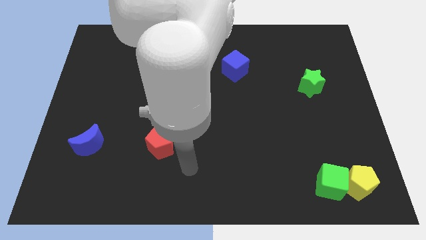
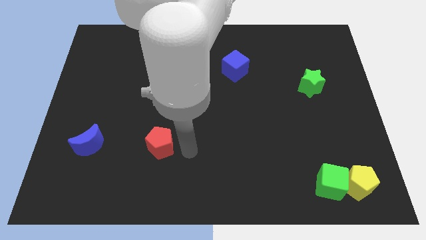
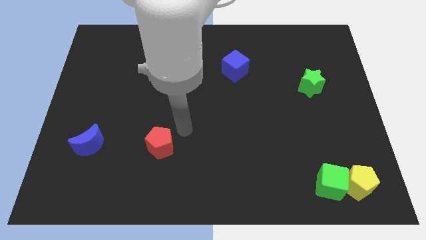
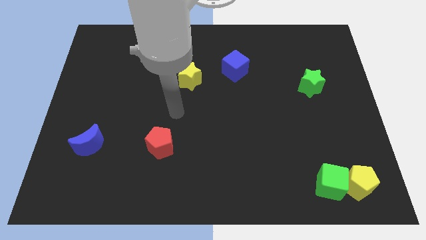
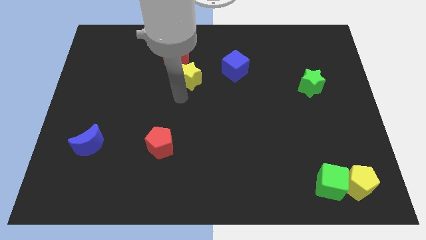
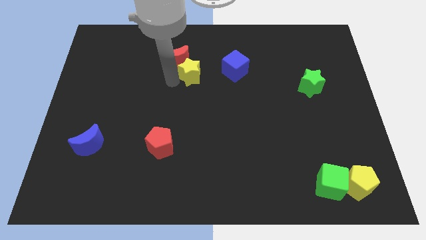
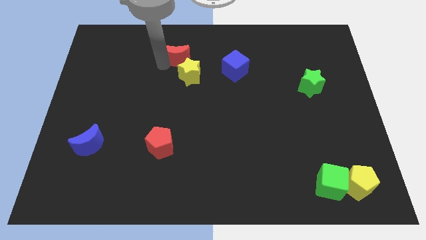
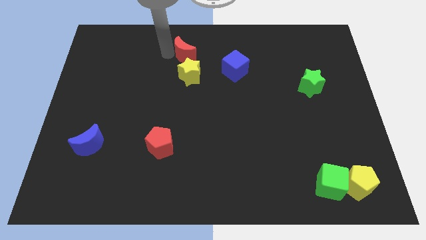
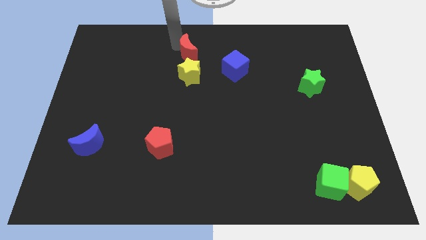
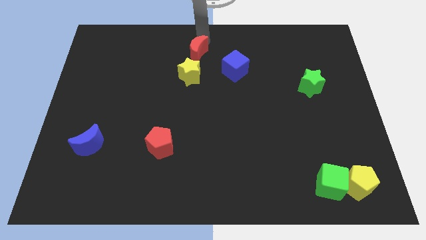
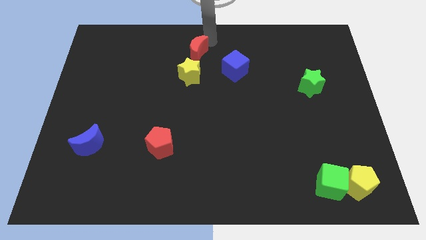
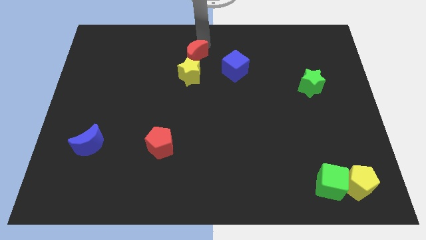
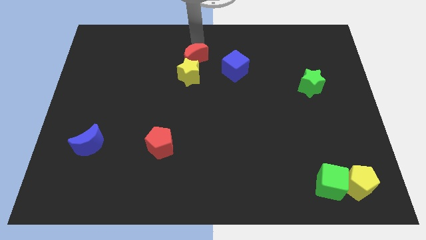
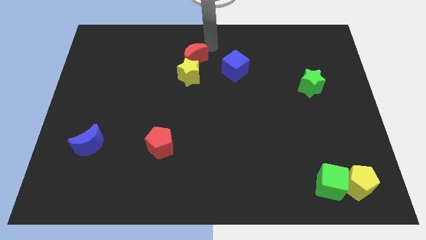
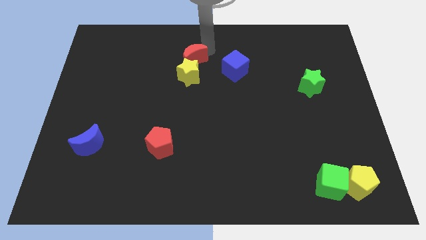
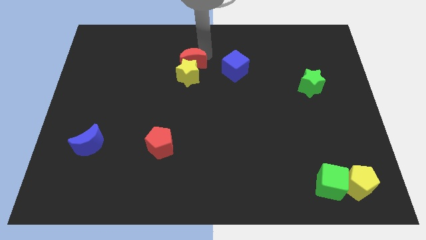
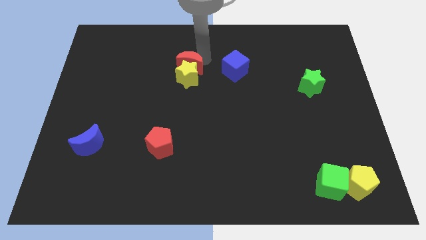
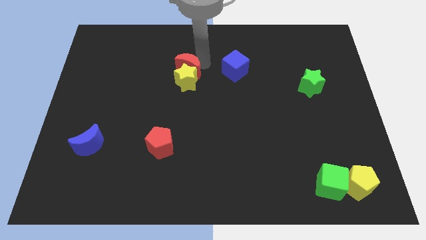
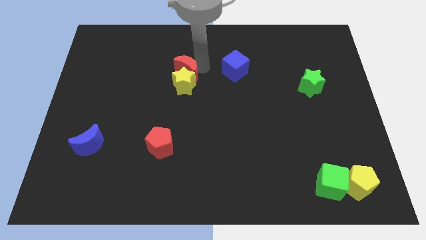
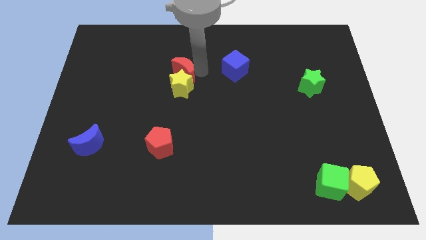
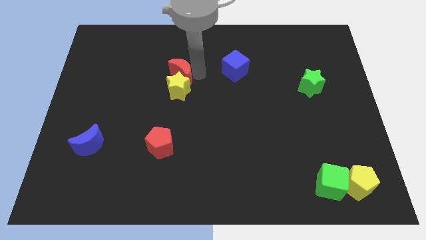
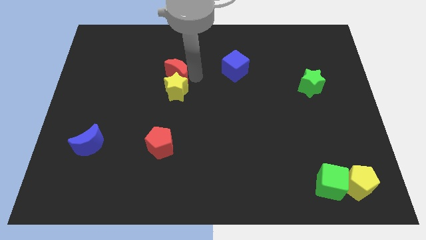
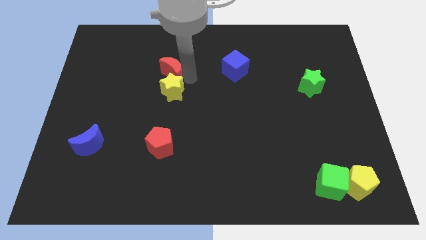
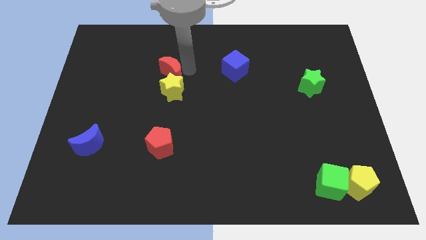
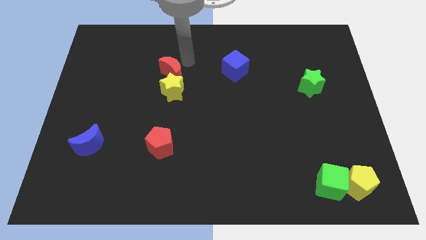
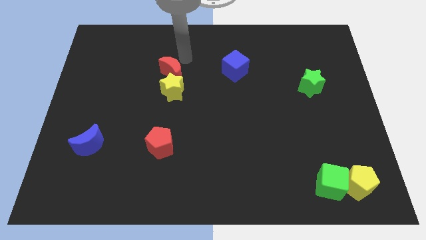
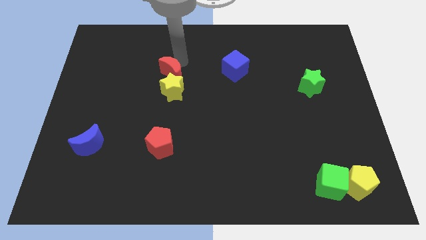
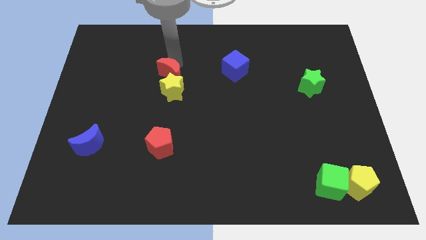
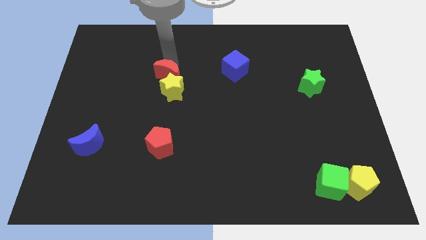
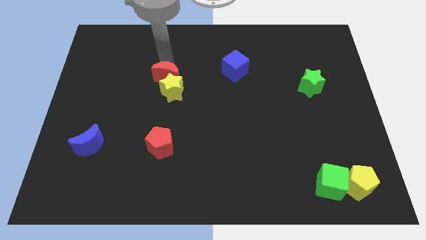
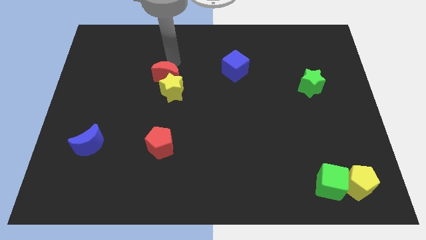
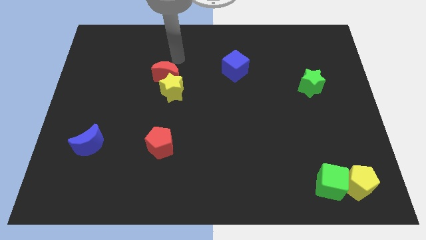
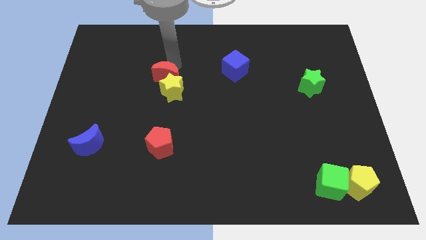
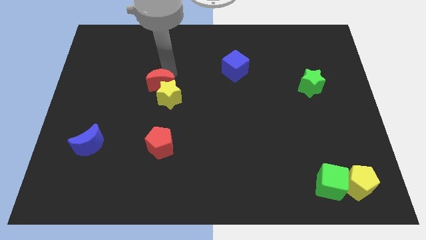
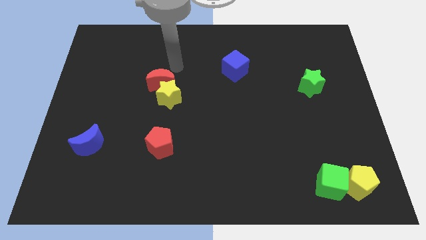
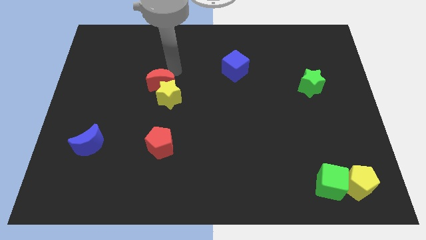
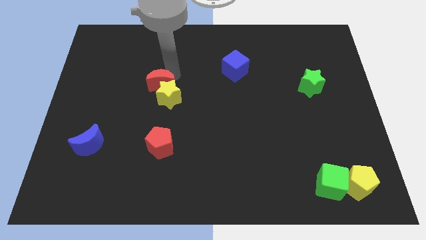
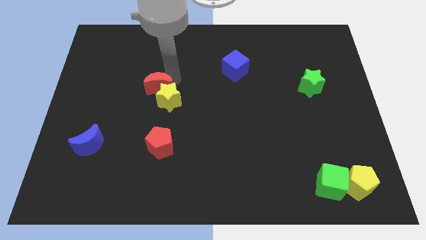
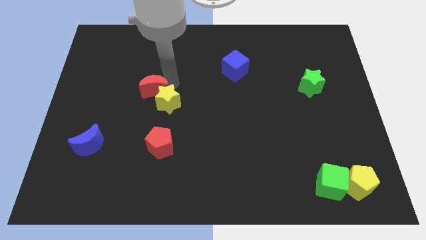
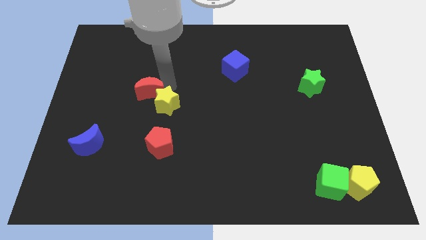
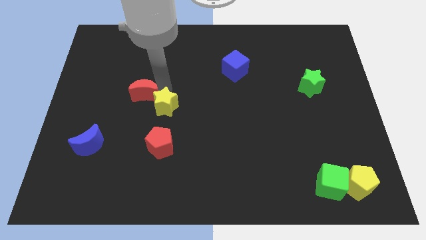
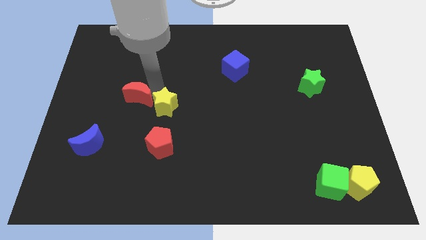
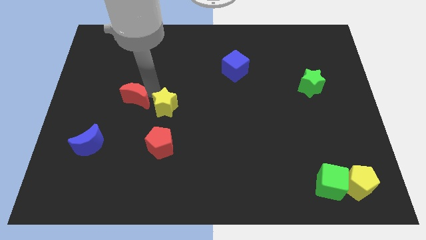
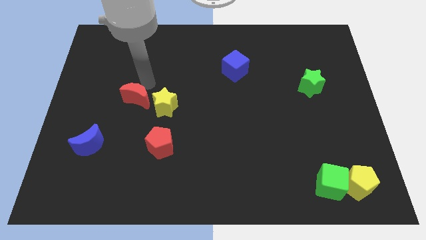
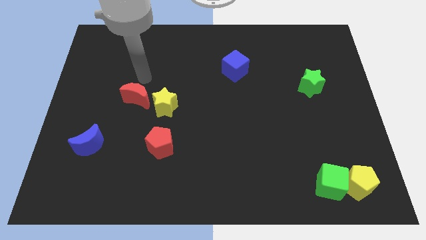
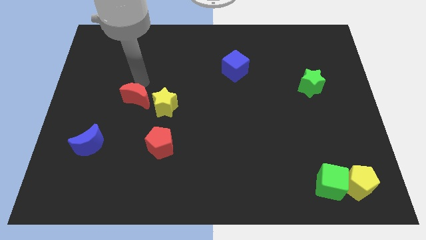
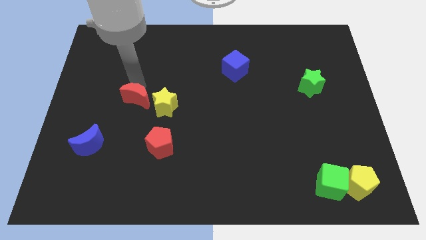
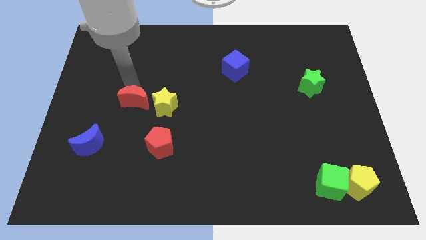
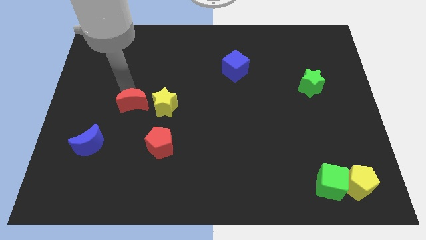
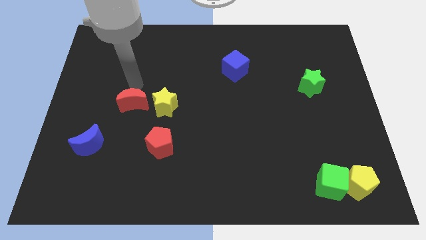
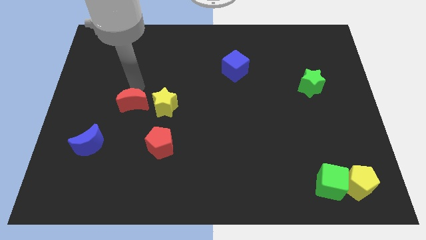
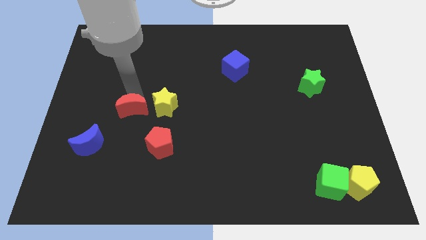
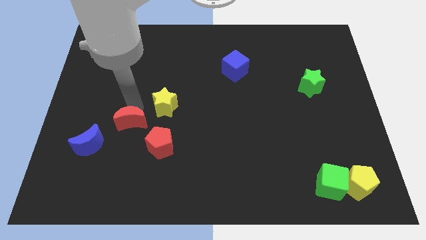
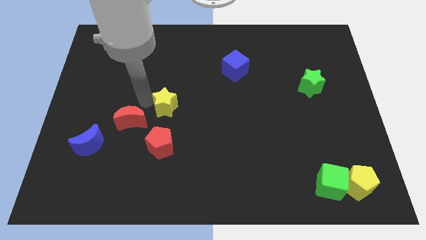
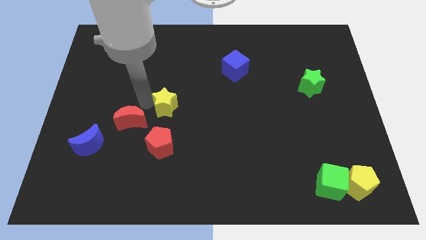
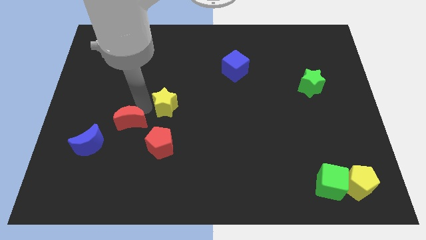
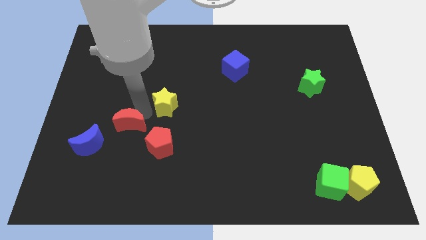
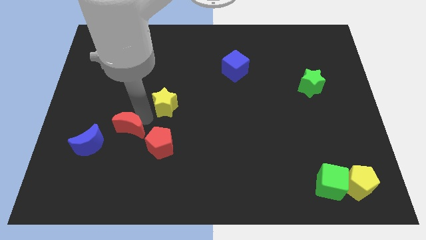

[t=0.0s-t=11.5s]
put the red moon left of the red pentagon

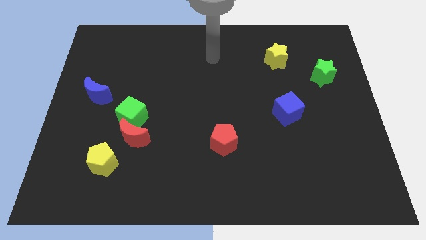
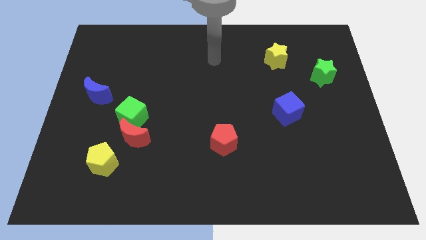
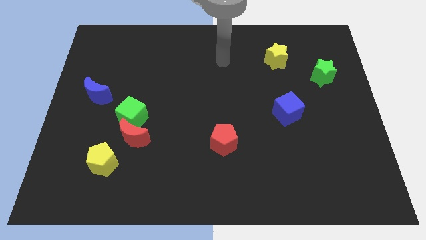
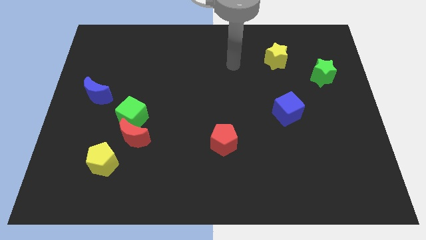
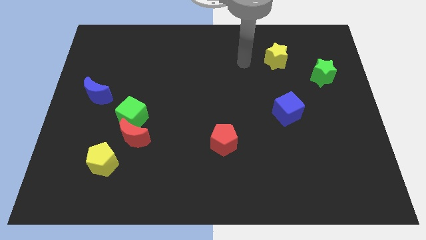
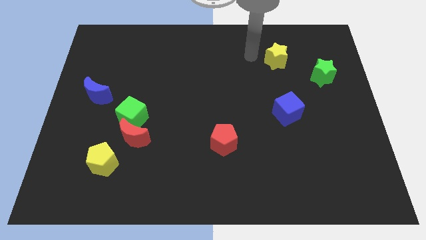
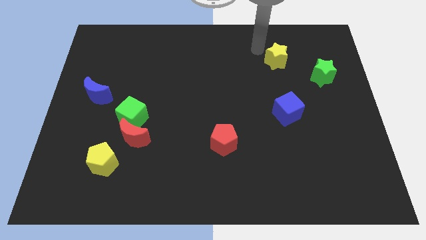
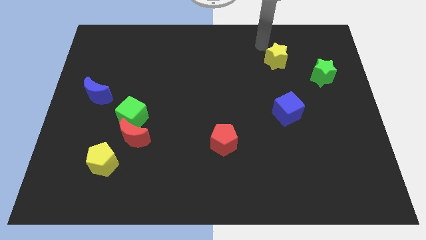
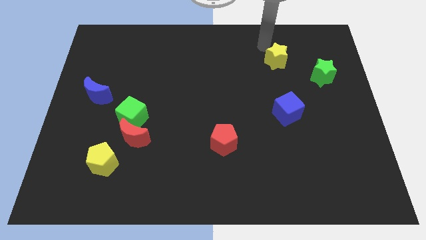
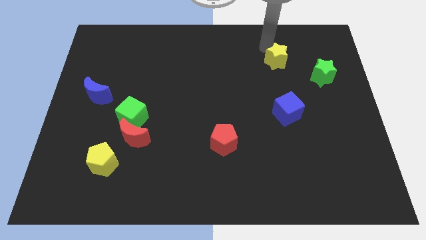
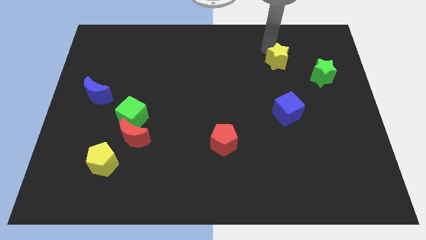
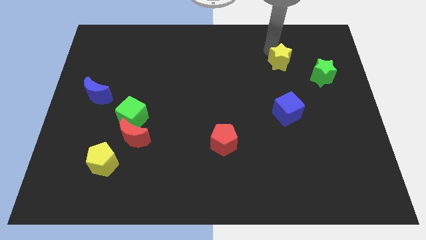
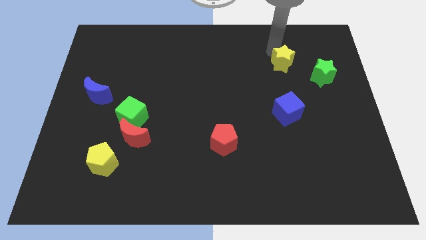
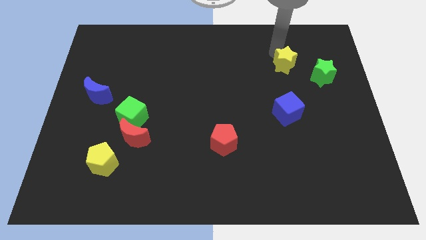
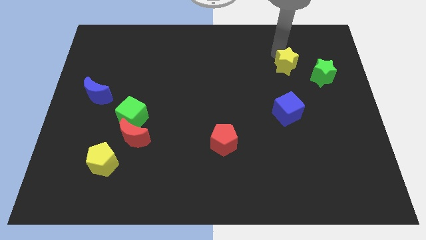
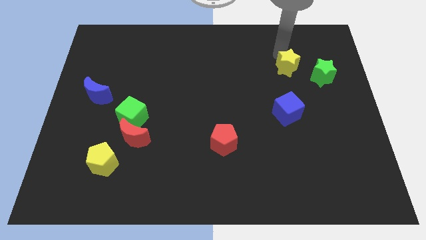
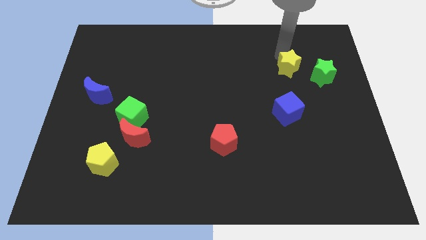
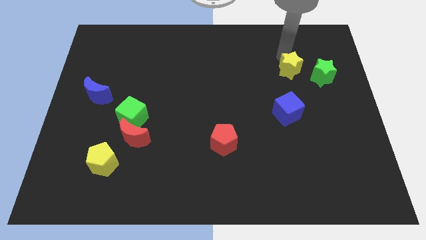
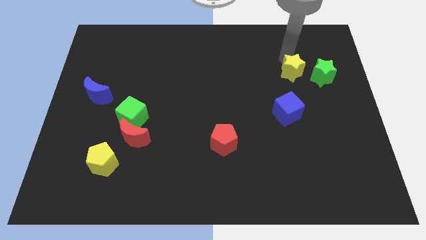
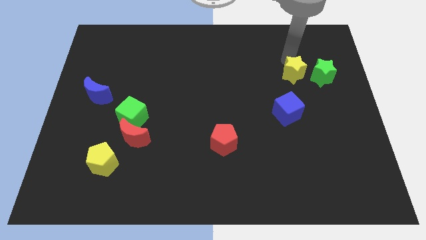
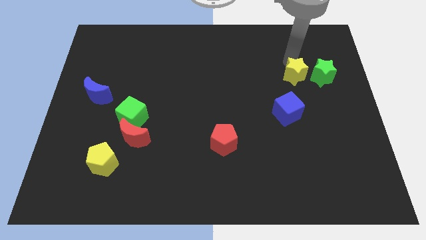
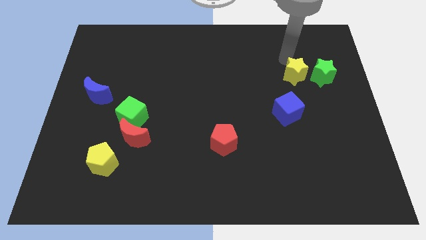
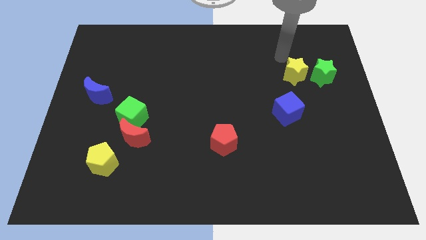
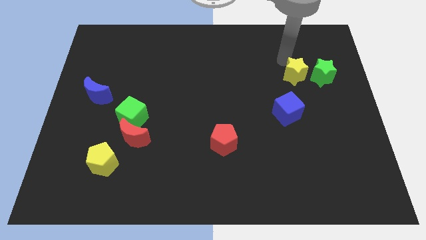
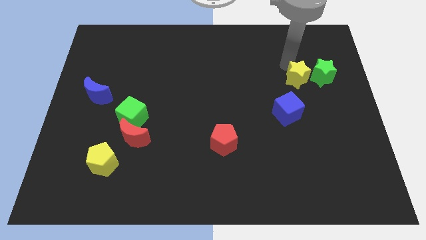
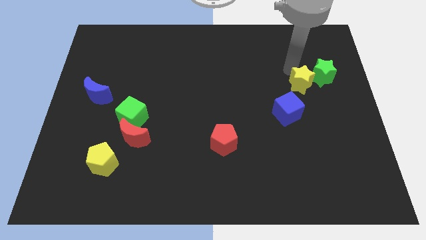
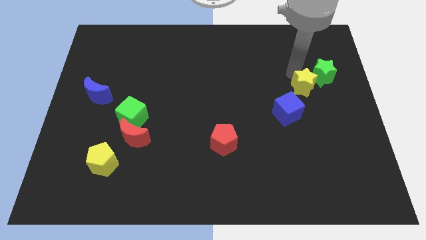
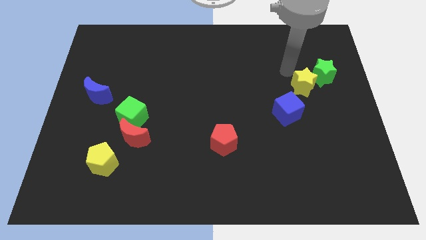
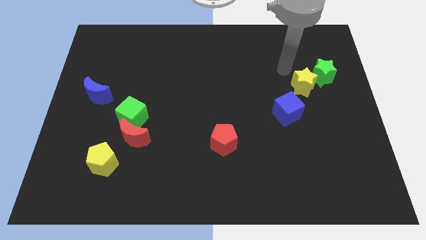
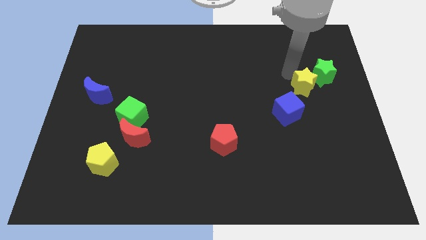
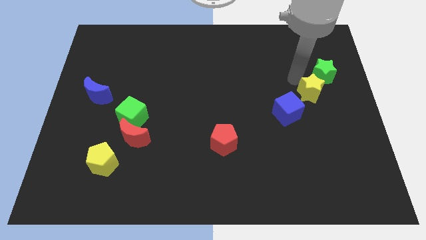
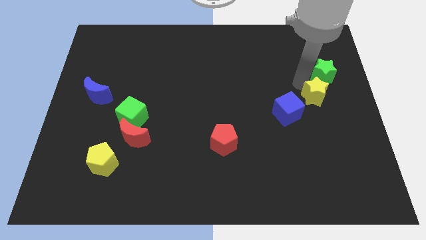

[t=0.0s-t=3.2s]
put the yellow star to the right side of the blue cube
